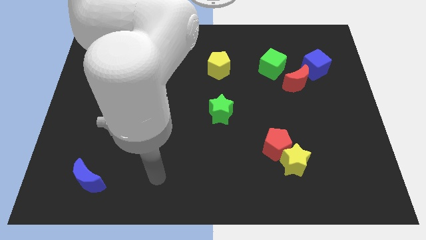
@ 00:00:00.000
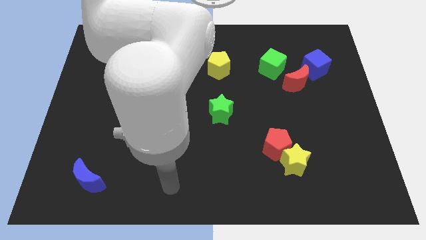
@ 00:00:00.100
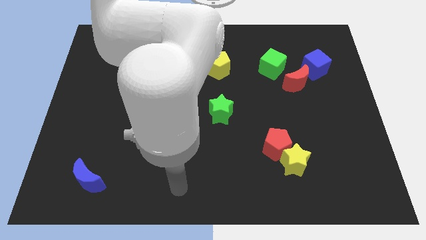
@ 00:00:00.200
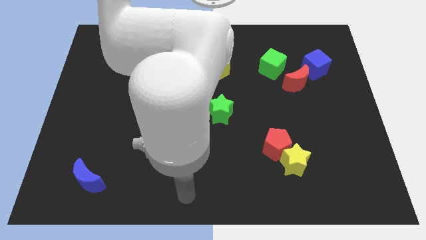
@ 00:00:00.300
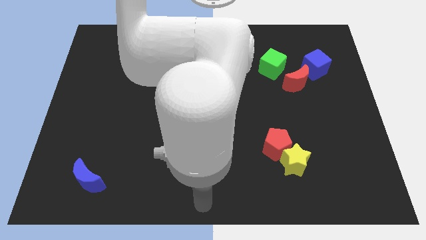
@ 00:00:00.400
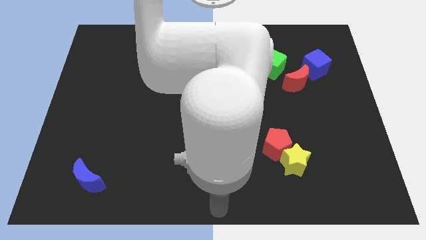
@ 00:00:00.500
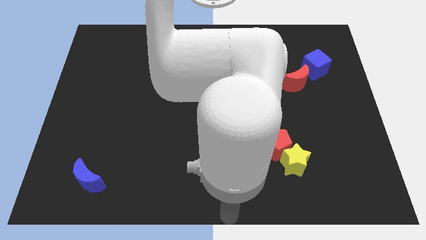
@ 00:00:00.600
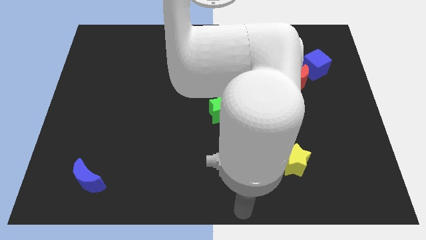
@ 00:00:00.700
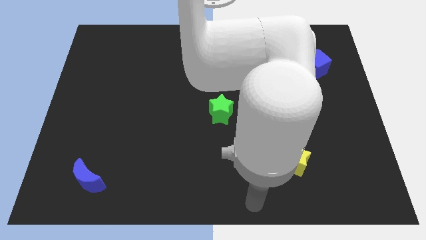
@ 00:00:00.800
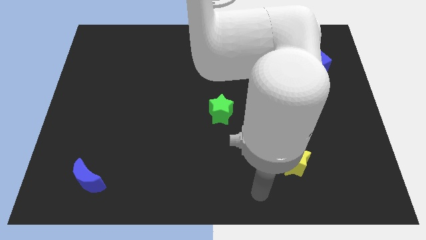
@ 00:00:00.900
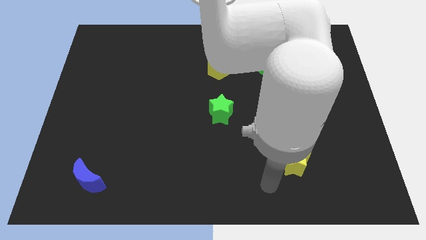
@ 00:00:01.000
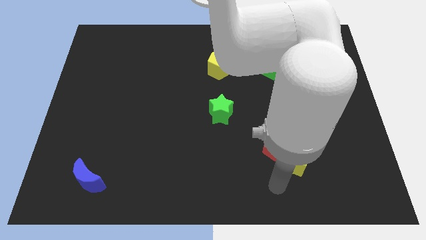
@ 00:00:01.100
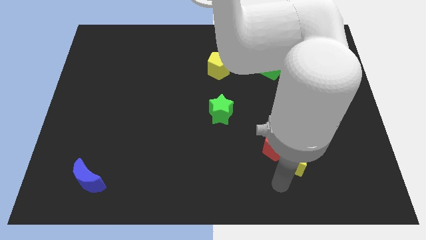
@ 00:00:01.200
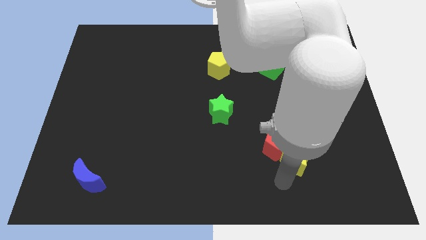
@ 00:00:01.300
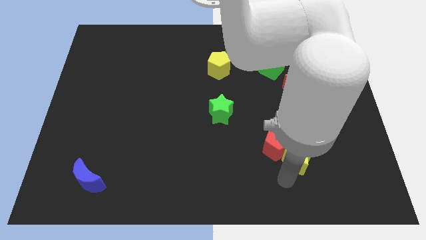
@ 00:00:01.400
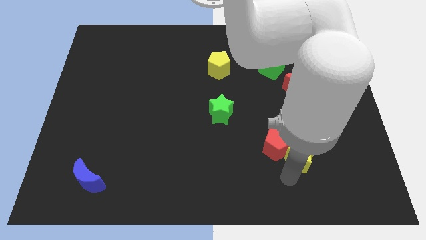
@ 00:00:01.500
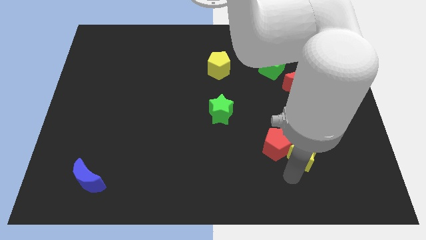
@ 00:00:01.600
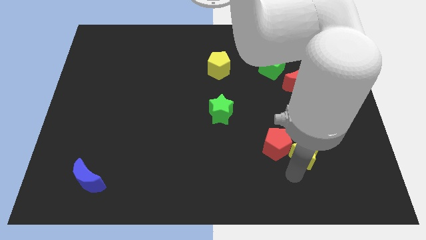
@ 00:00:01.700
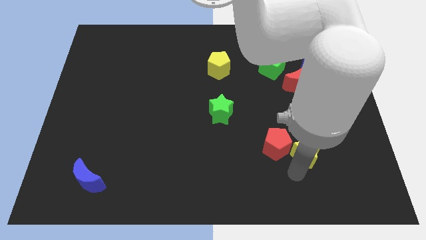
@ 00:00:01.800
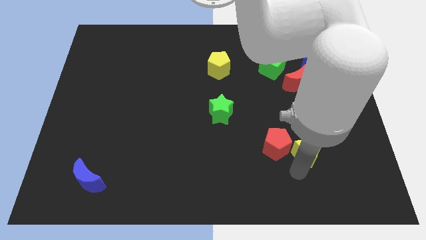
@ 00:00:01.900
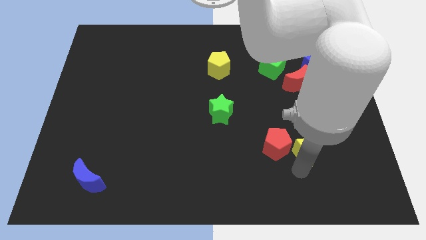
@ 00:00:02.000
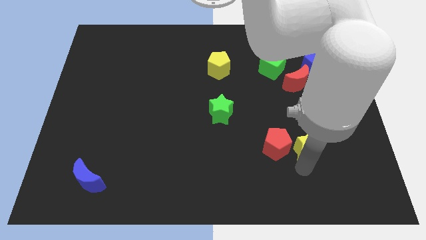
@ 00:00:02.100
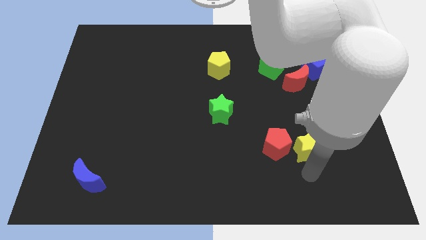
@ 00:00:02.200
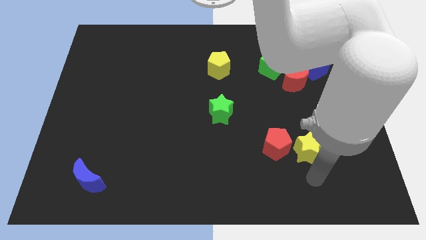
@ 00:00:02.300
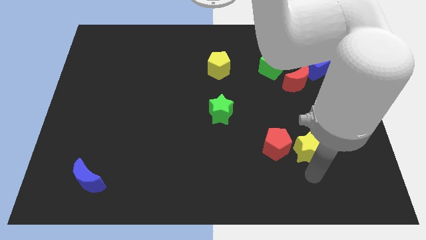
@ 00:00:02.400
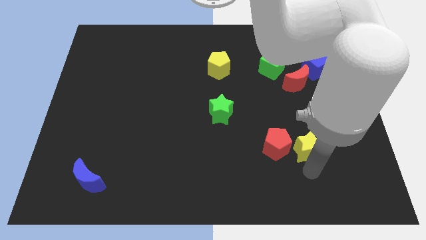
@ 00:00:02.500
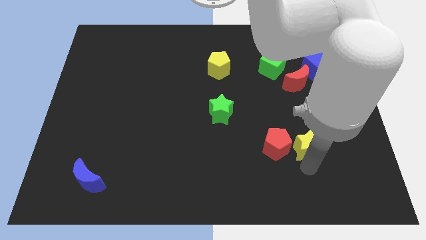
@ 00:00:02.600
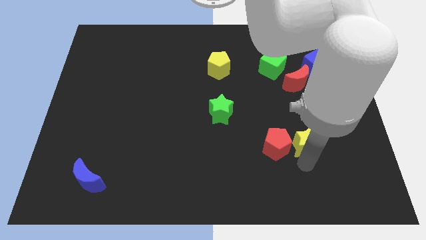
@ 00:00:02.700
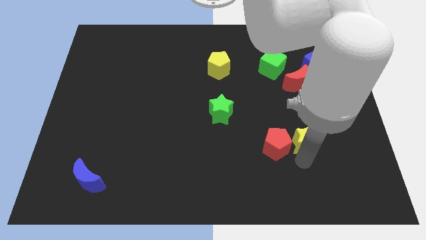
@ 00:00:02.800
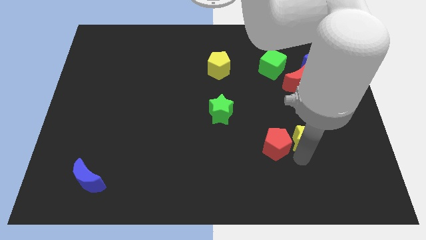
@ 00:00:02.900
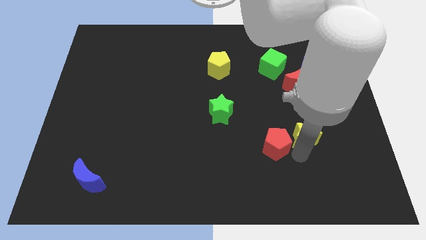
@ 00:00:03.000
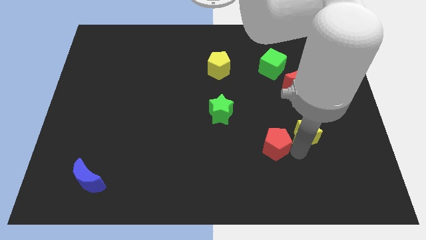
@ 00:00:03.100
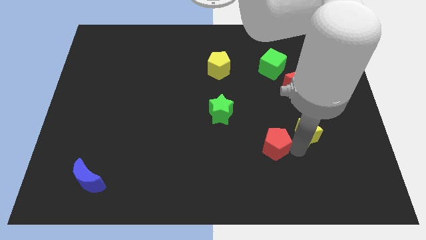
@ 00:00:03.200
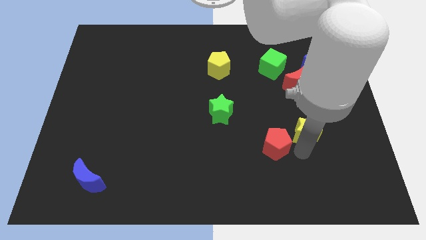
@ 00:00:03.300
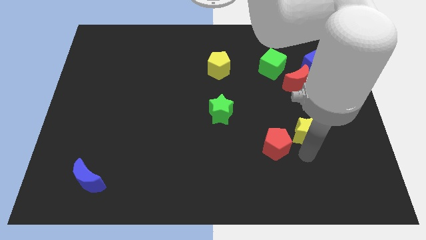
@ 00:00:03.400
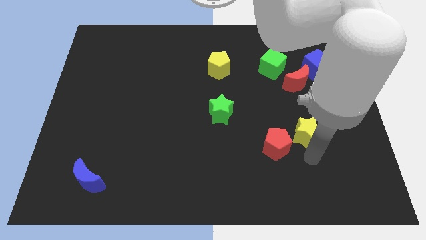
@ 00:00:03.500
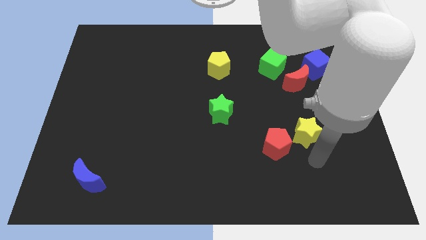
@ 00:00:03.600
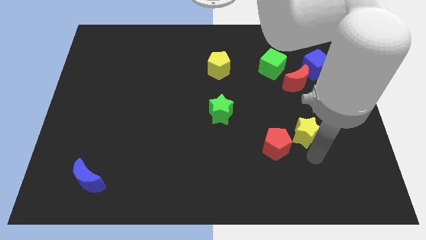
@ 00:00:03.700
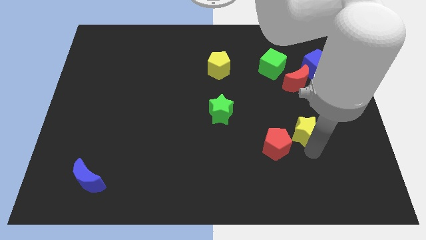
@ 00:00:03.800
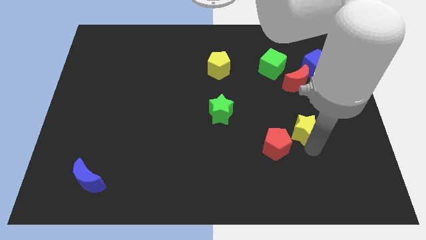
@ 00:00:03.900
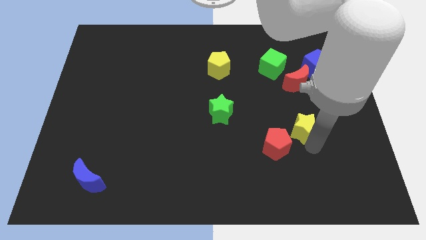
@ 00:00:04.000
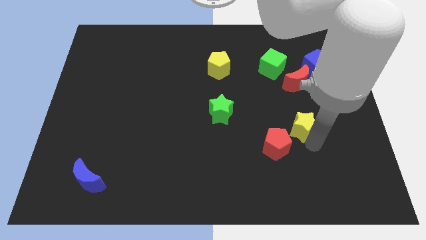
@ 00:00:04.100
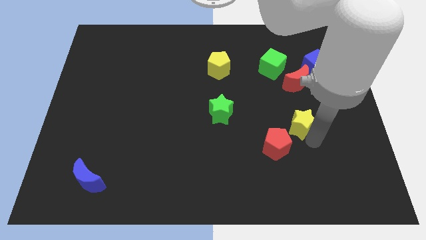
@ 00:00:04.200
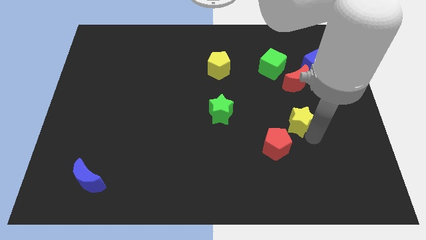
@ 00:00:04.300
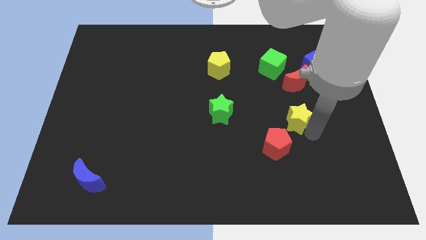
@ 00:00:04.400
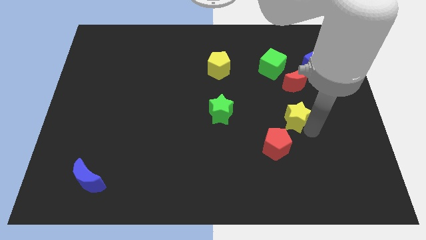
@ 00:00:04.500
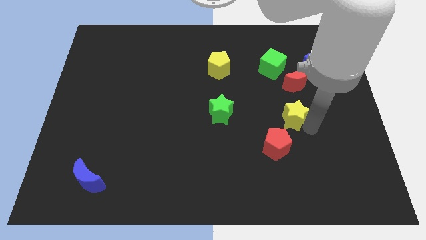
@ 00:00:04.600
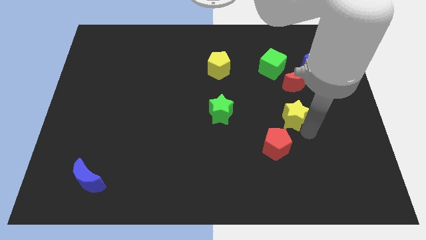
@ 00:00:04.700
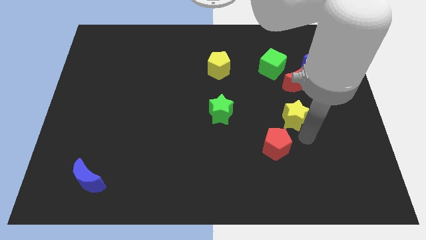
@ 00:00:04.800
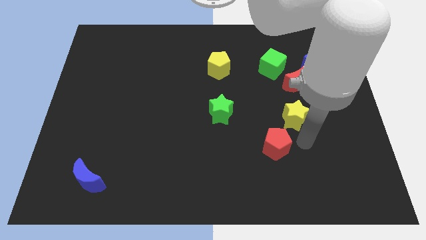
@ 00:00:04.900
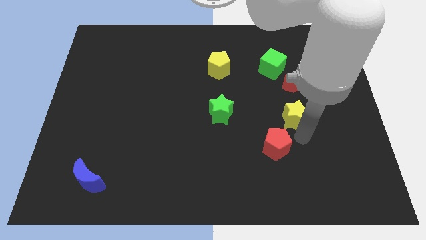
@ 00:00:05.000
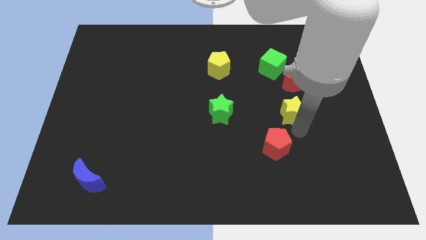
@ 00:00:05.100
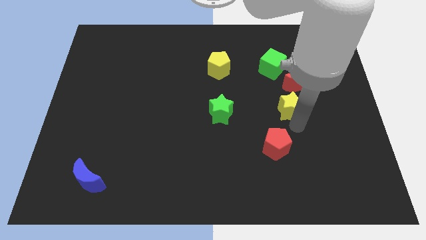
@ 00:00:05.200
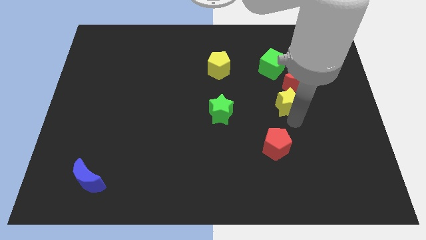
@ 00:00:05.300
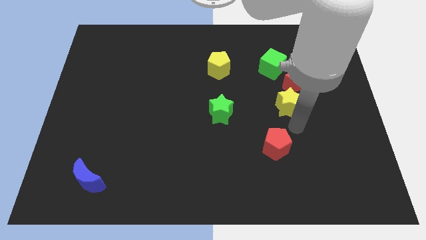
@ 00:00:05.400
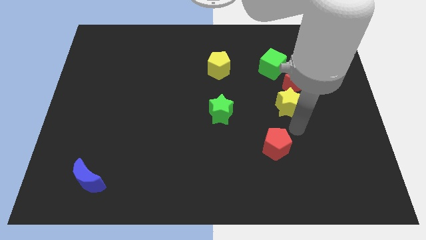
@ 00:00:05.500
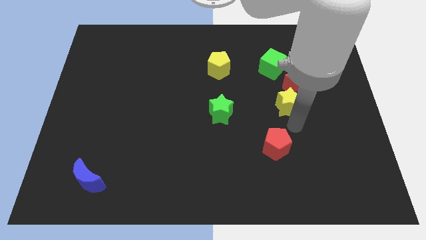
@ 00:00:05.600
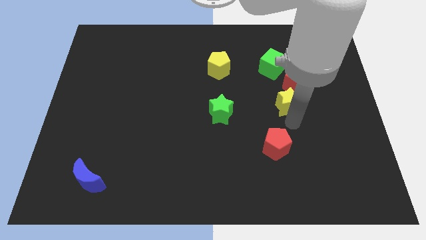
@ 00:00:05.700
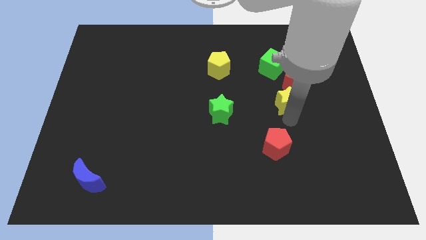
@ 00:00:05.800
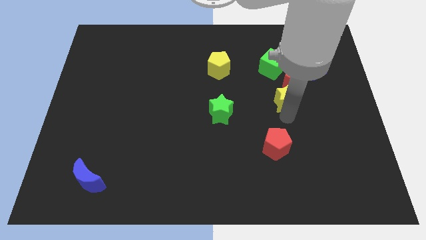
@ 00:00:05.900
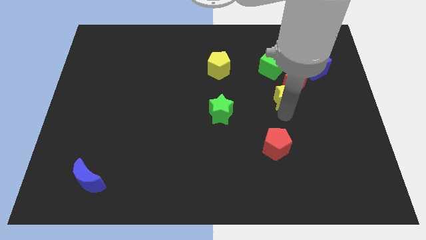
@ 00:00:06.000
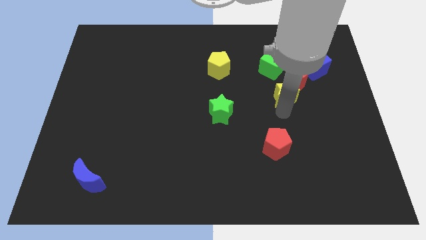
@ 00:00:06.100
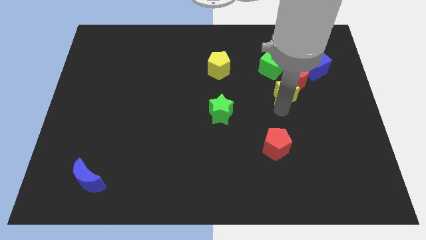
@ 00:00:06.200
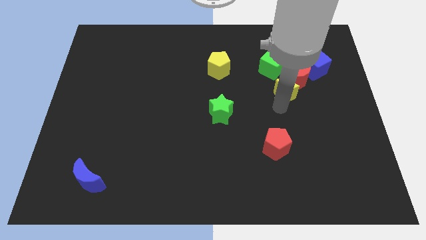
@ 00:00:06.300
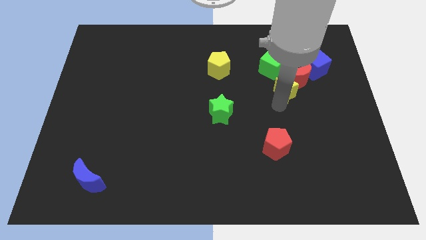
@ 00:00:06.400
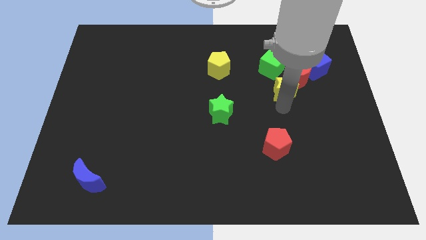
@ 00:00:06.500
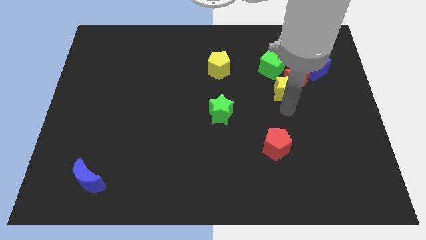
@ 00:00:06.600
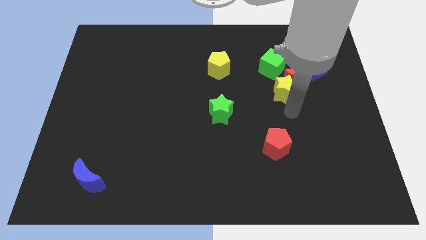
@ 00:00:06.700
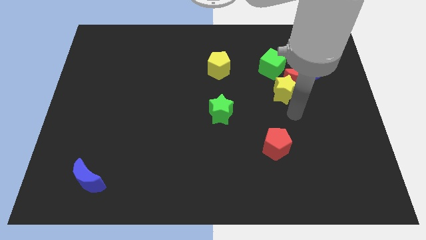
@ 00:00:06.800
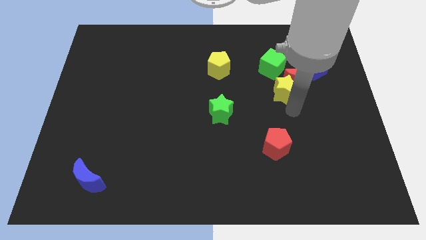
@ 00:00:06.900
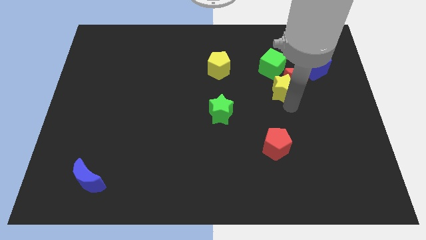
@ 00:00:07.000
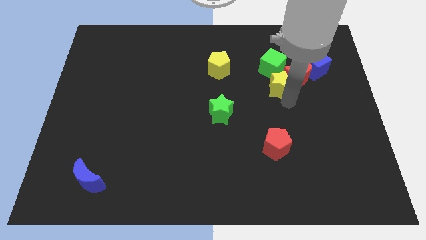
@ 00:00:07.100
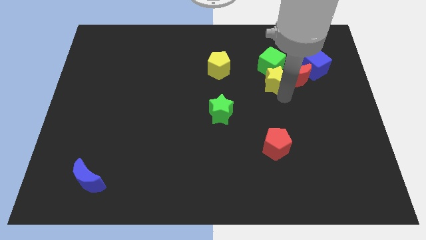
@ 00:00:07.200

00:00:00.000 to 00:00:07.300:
slide the yellow star close to the green cube
